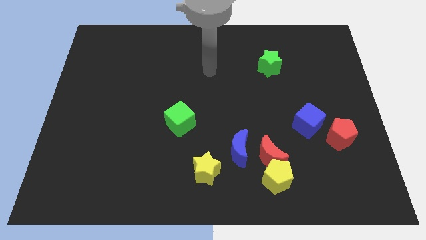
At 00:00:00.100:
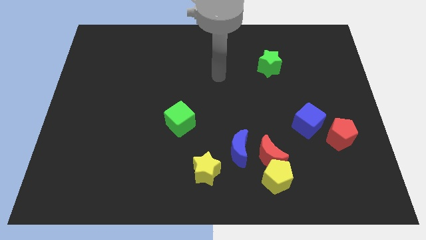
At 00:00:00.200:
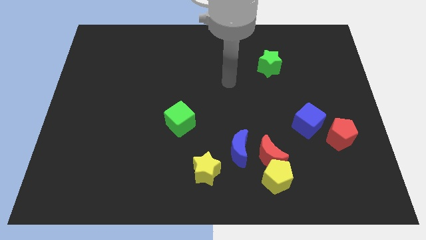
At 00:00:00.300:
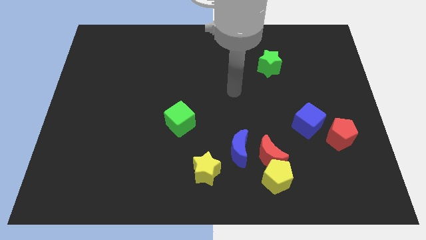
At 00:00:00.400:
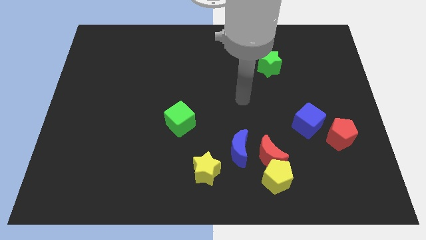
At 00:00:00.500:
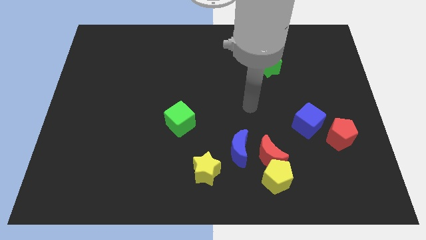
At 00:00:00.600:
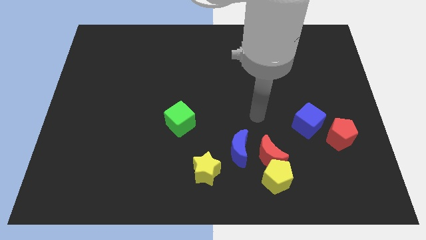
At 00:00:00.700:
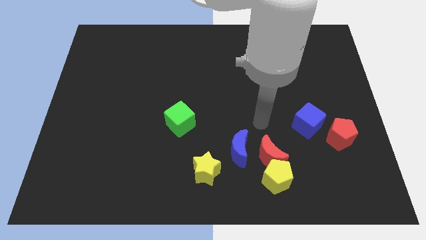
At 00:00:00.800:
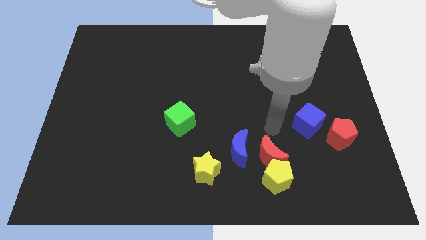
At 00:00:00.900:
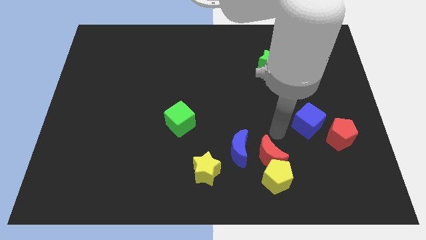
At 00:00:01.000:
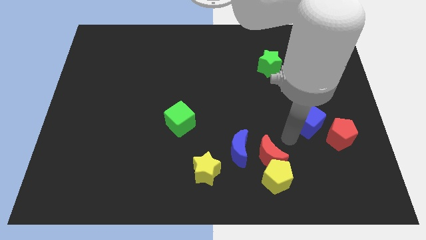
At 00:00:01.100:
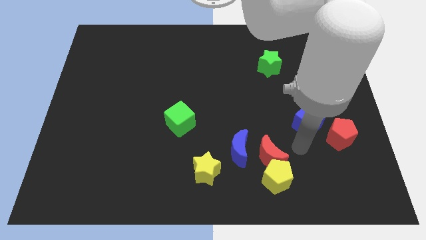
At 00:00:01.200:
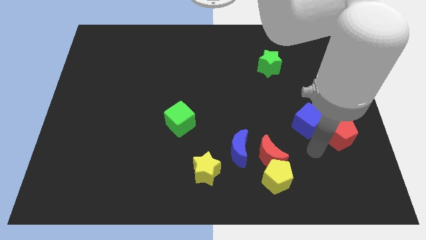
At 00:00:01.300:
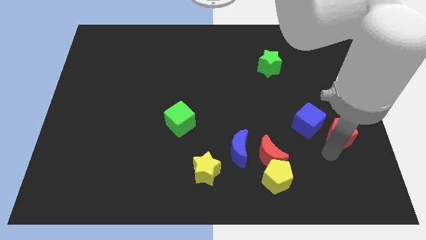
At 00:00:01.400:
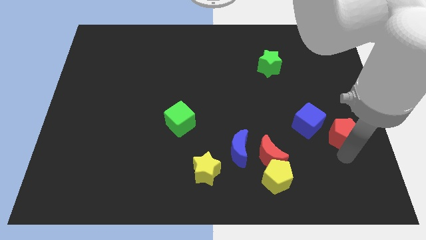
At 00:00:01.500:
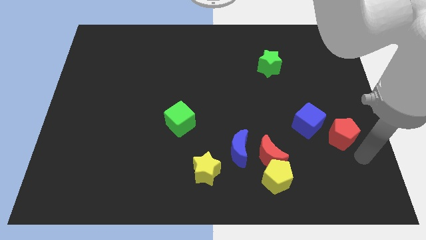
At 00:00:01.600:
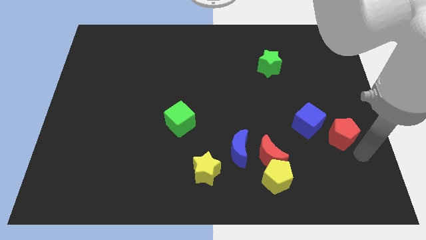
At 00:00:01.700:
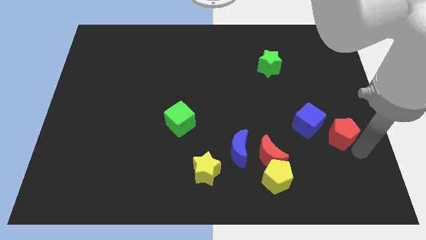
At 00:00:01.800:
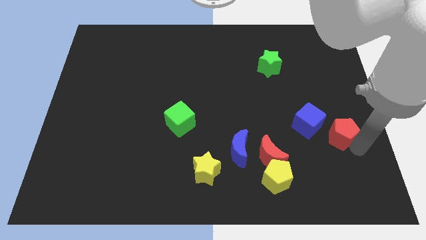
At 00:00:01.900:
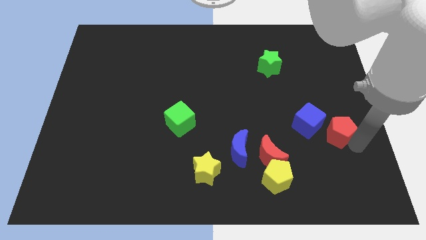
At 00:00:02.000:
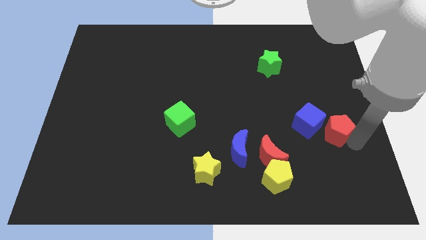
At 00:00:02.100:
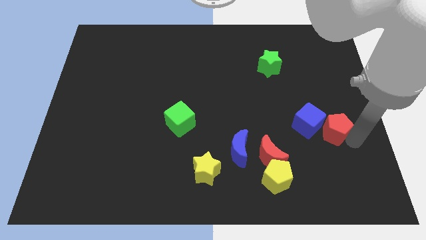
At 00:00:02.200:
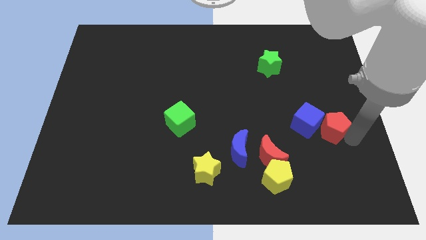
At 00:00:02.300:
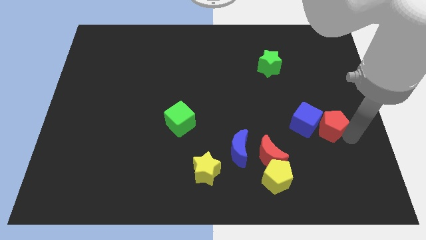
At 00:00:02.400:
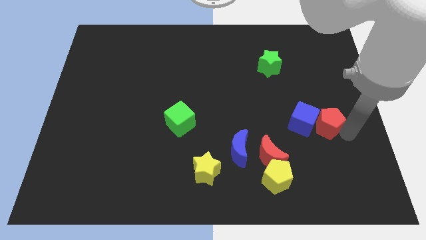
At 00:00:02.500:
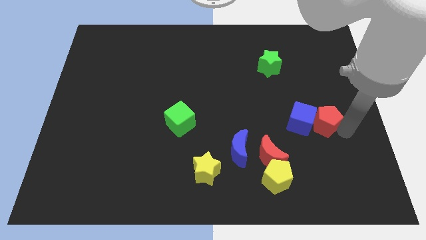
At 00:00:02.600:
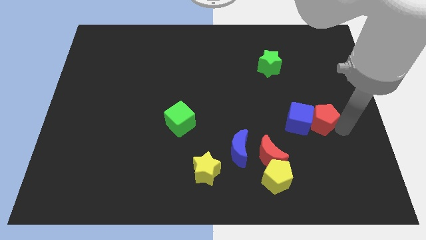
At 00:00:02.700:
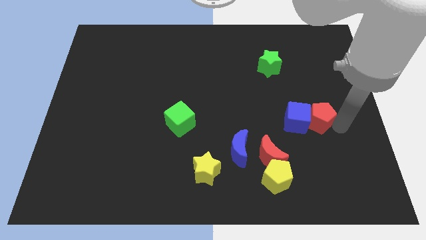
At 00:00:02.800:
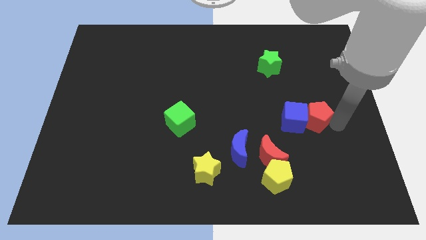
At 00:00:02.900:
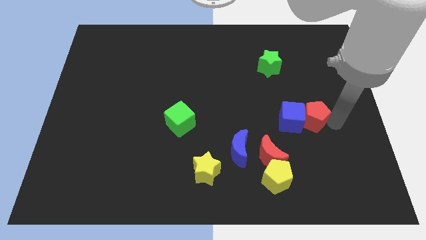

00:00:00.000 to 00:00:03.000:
slightly slide the red pentagon up and to the left diagonally

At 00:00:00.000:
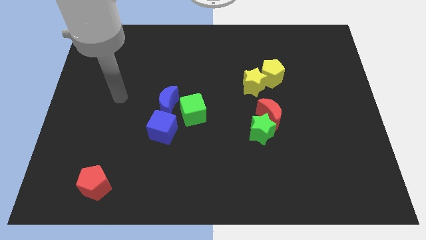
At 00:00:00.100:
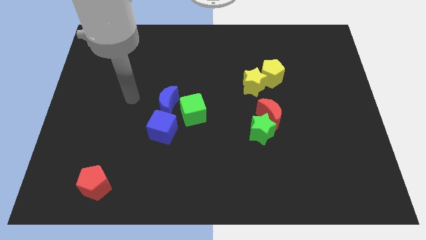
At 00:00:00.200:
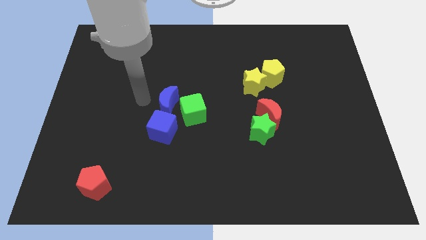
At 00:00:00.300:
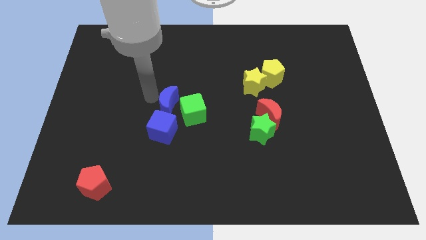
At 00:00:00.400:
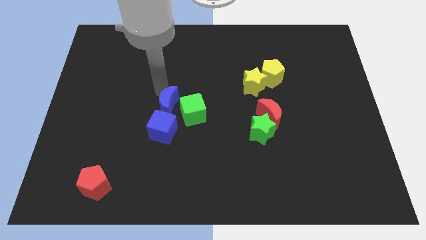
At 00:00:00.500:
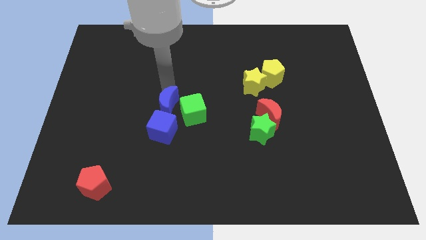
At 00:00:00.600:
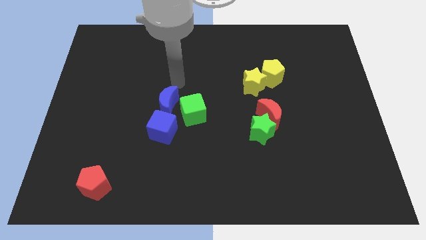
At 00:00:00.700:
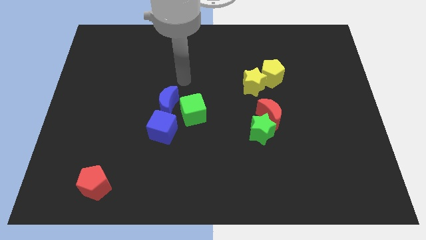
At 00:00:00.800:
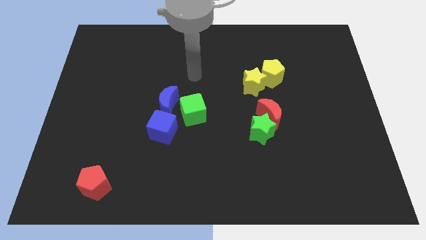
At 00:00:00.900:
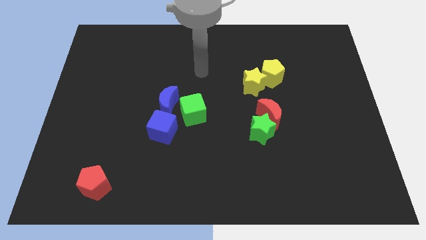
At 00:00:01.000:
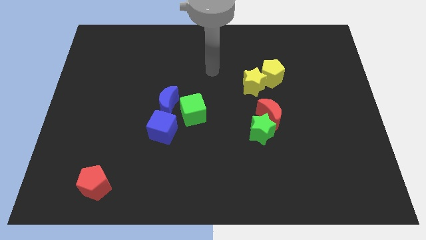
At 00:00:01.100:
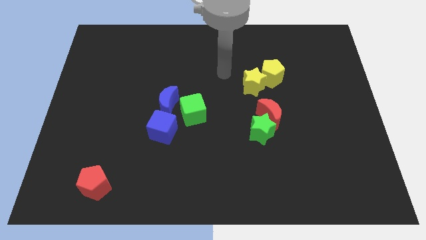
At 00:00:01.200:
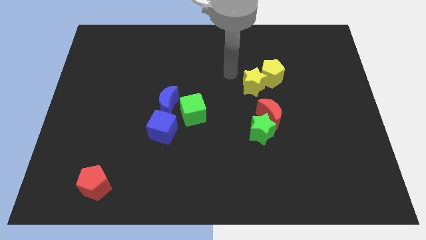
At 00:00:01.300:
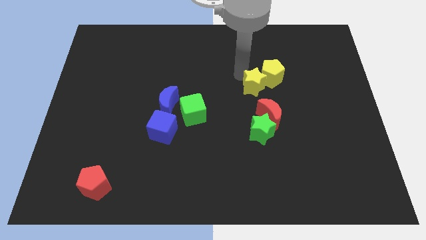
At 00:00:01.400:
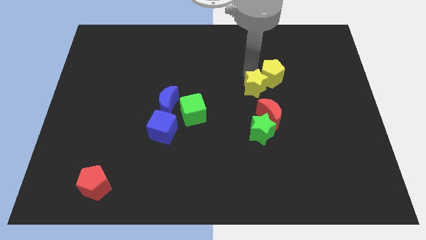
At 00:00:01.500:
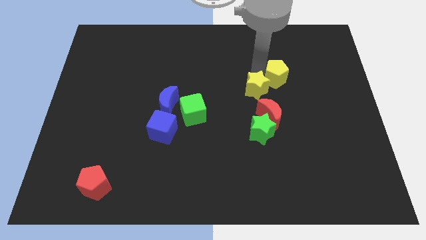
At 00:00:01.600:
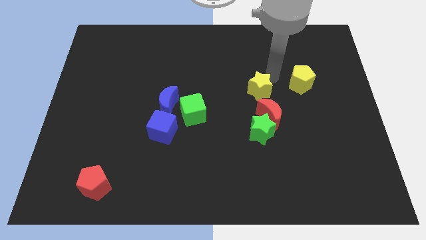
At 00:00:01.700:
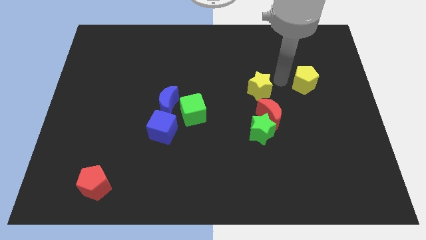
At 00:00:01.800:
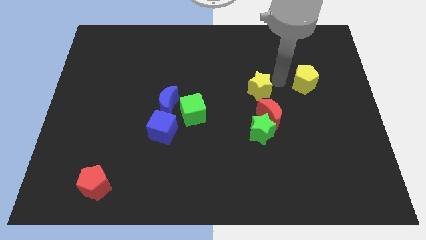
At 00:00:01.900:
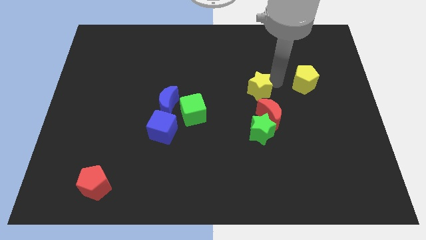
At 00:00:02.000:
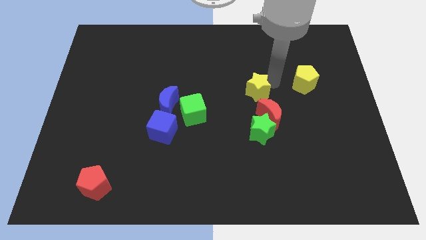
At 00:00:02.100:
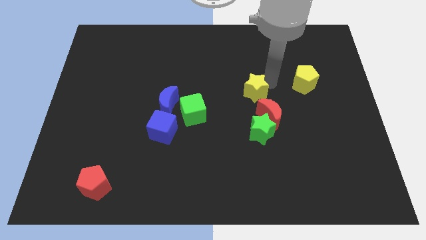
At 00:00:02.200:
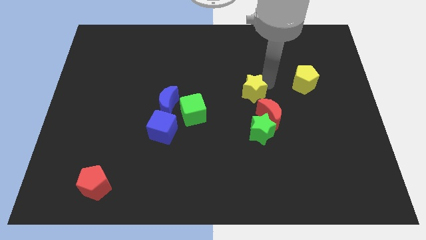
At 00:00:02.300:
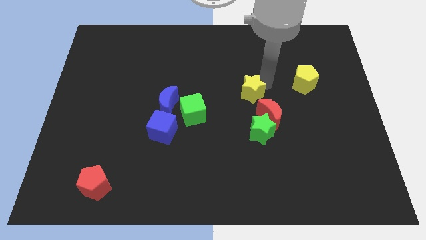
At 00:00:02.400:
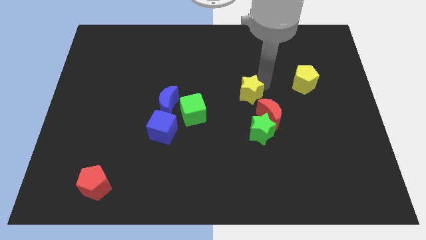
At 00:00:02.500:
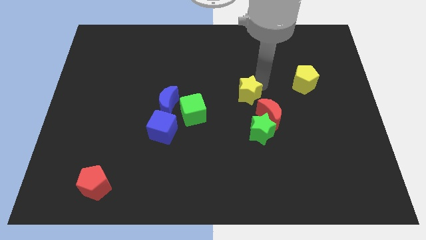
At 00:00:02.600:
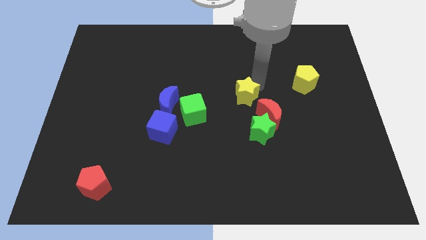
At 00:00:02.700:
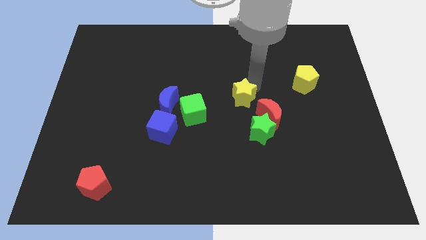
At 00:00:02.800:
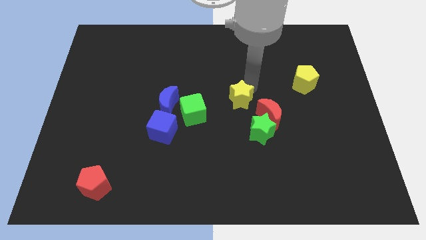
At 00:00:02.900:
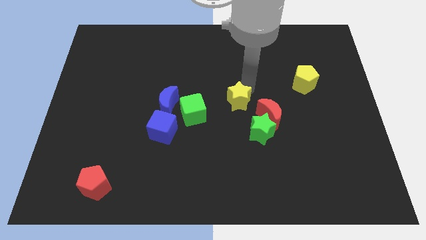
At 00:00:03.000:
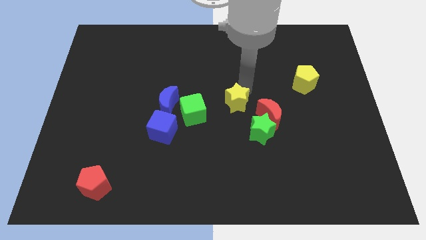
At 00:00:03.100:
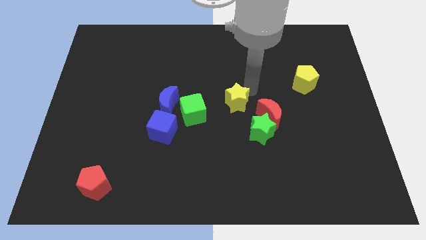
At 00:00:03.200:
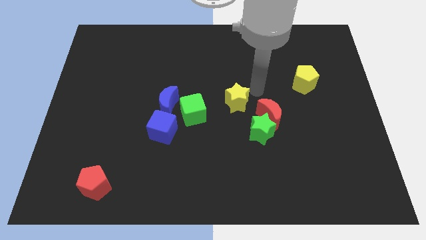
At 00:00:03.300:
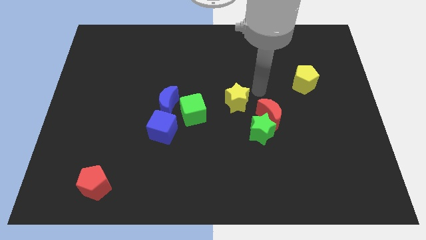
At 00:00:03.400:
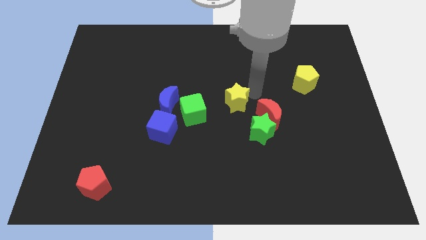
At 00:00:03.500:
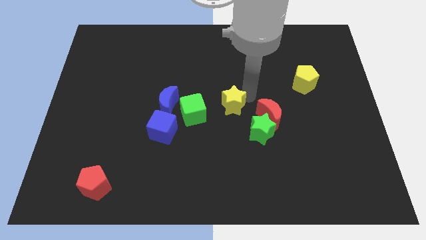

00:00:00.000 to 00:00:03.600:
slide the yellow star a bit down and left

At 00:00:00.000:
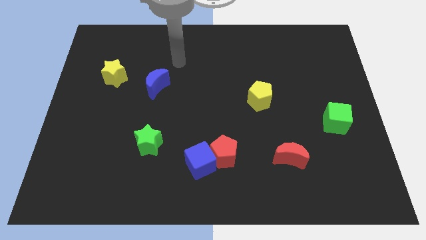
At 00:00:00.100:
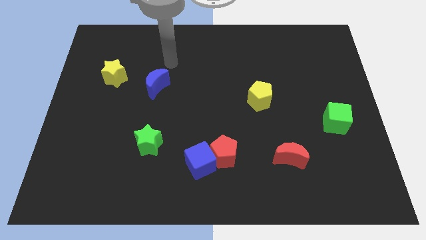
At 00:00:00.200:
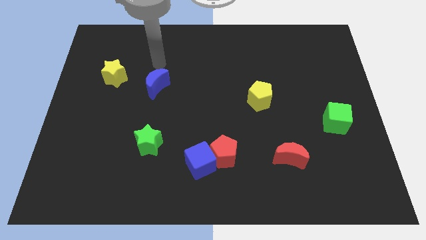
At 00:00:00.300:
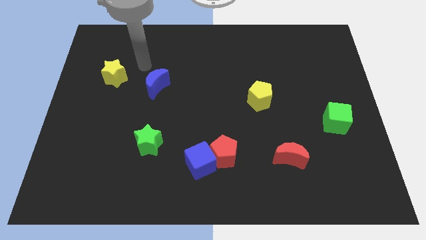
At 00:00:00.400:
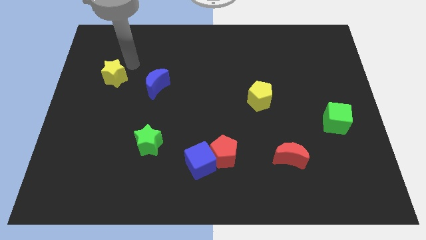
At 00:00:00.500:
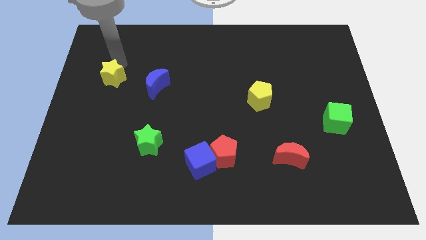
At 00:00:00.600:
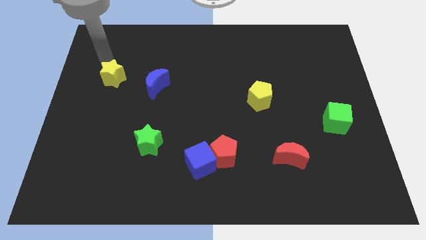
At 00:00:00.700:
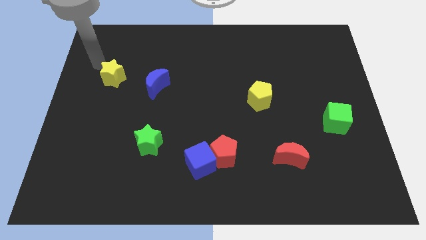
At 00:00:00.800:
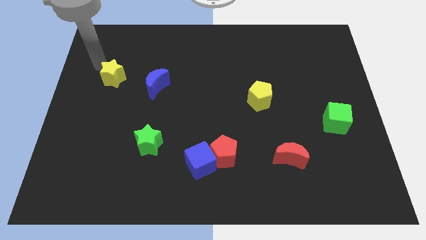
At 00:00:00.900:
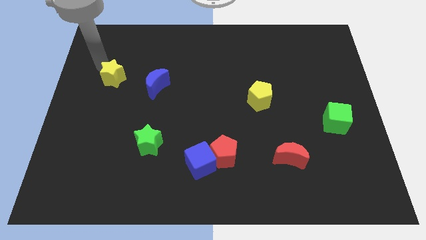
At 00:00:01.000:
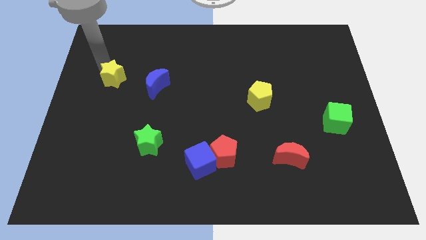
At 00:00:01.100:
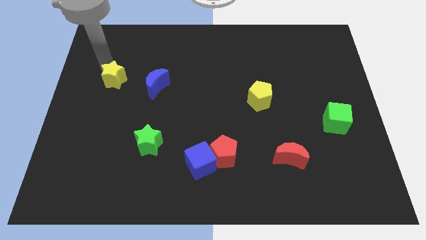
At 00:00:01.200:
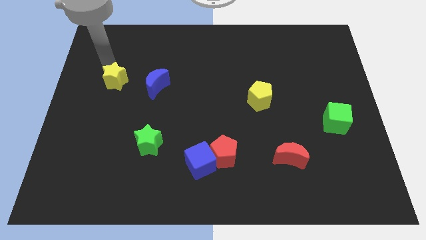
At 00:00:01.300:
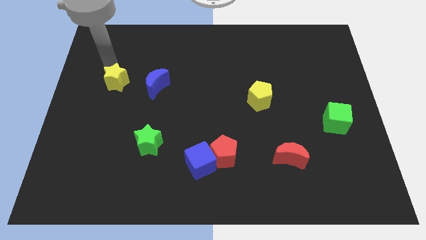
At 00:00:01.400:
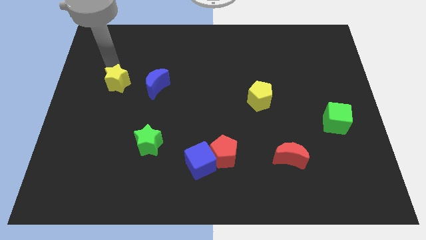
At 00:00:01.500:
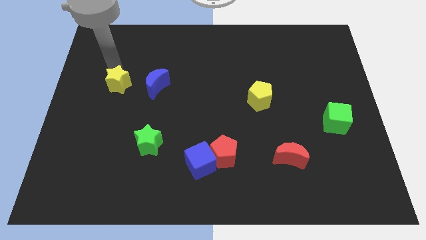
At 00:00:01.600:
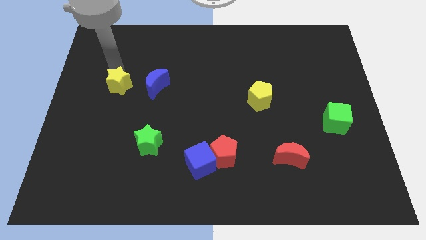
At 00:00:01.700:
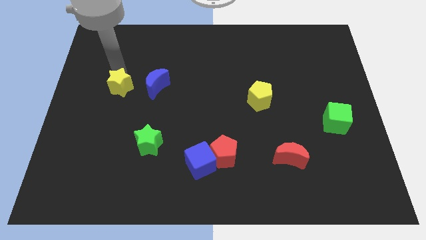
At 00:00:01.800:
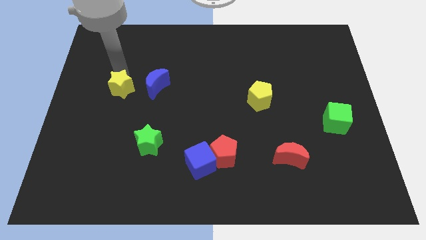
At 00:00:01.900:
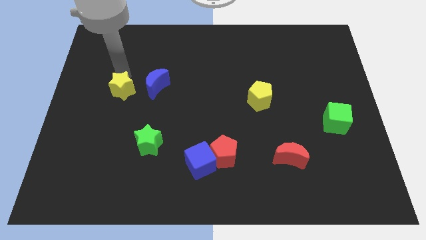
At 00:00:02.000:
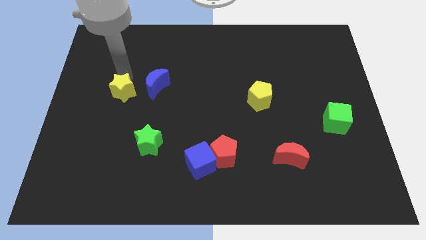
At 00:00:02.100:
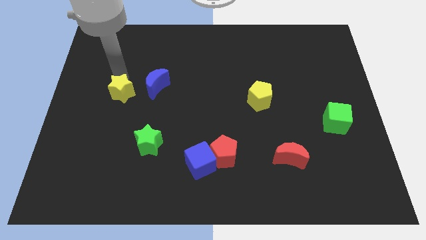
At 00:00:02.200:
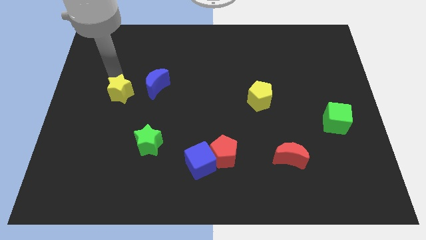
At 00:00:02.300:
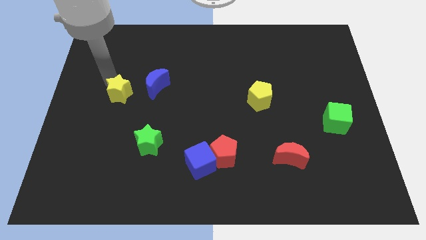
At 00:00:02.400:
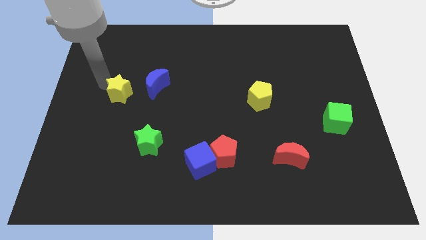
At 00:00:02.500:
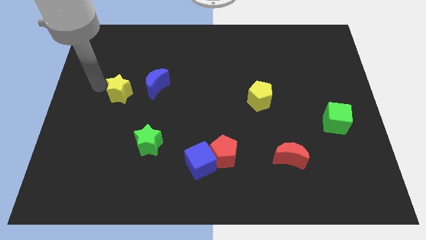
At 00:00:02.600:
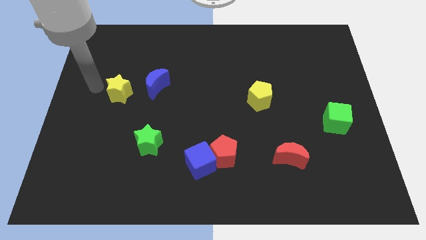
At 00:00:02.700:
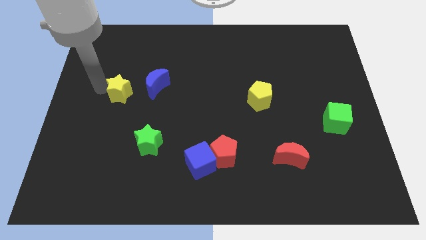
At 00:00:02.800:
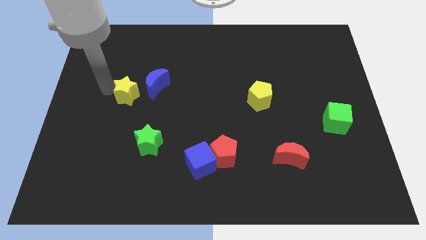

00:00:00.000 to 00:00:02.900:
slightly slide the yellow star downwards and right diagonally
